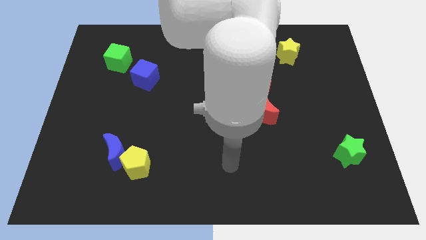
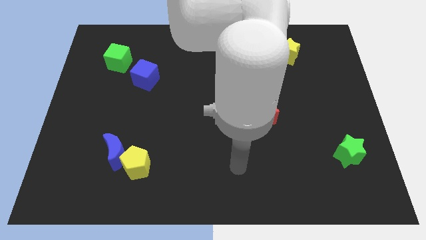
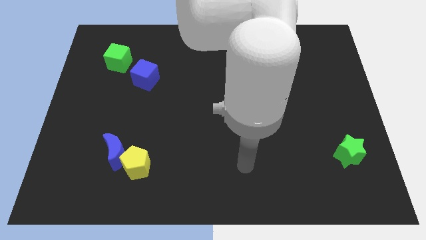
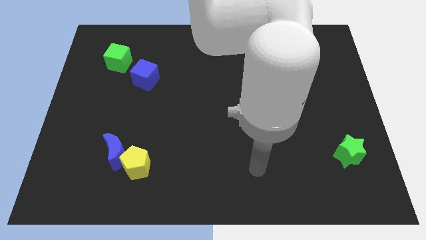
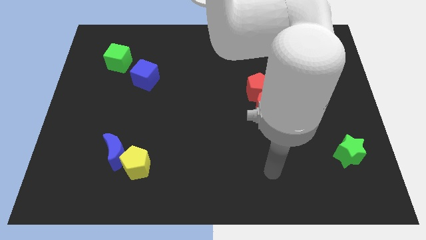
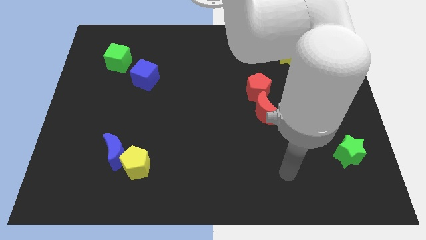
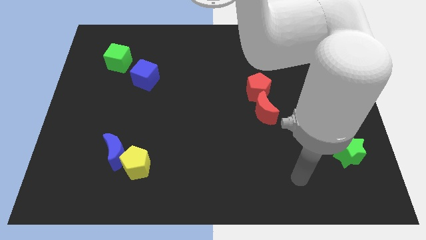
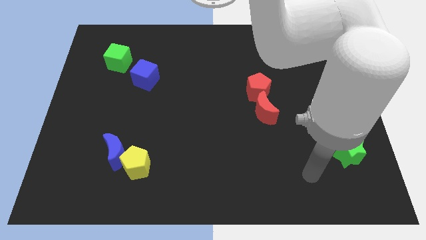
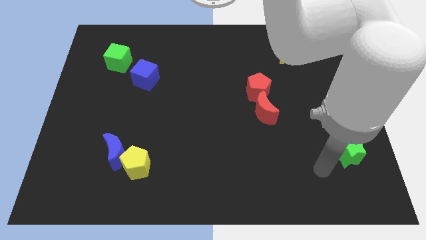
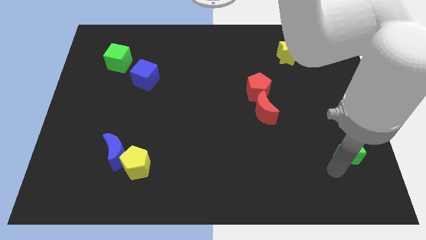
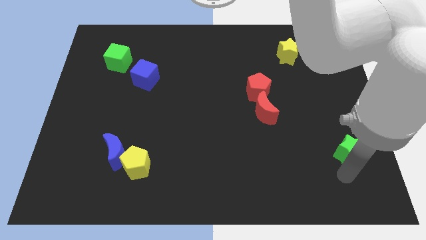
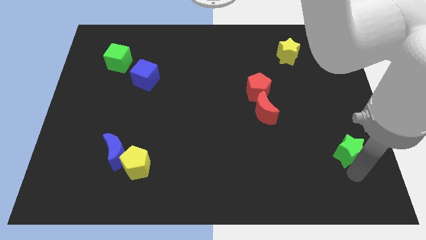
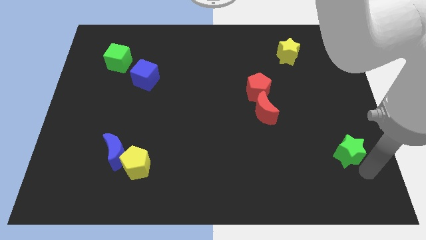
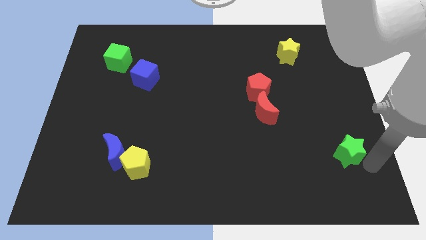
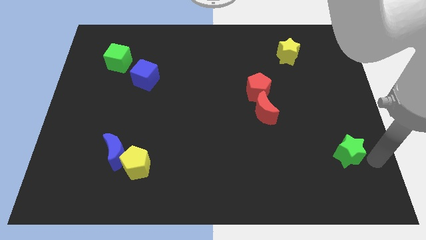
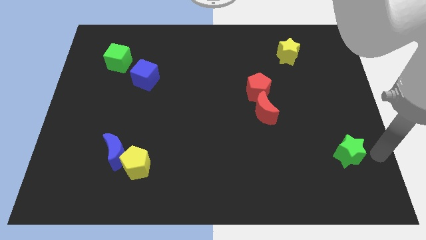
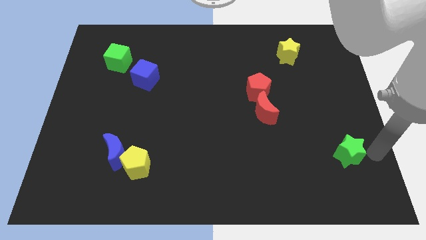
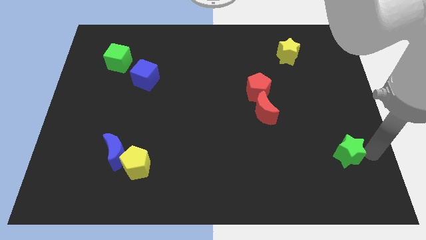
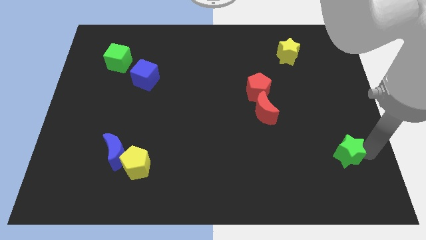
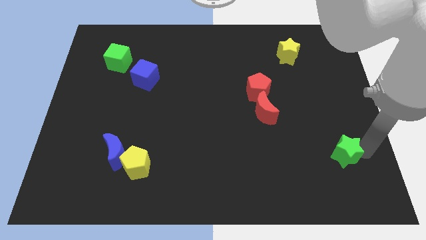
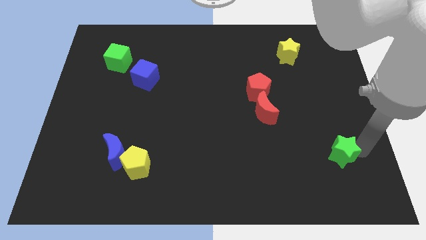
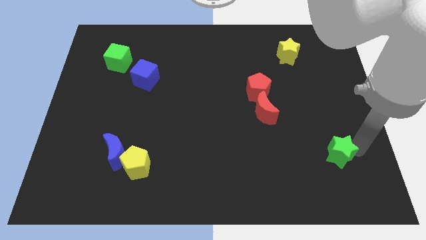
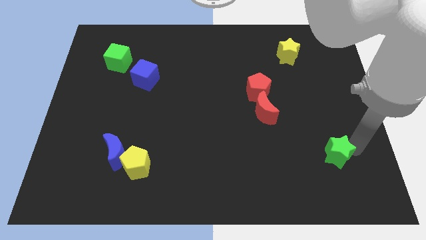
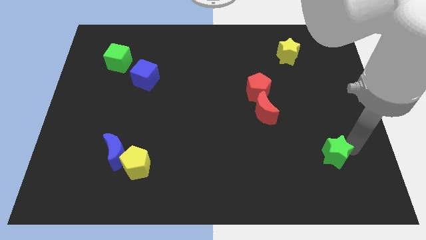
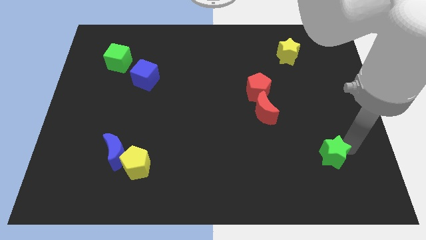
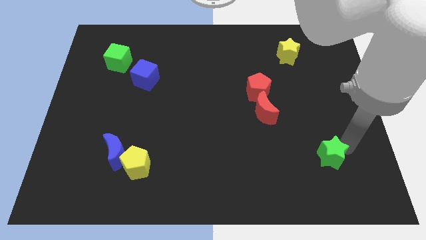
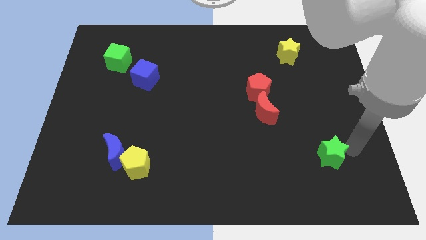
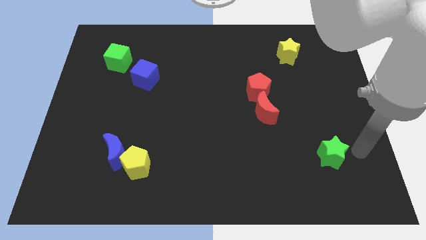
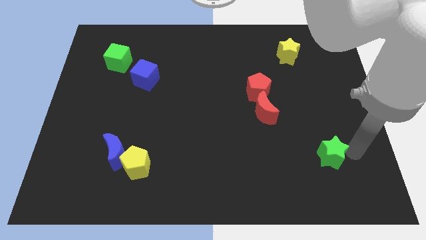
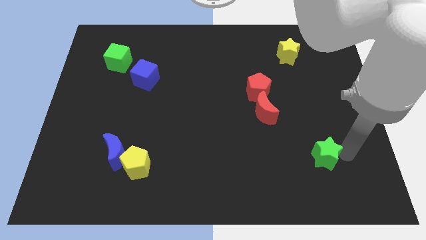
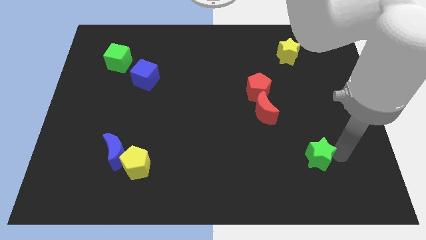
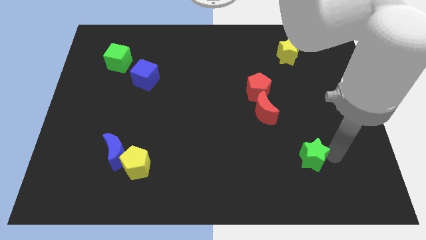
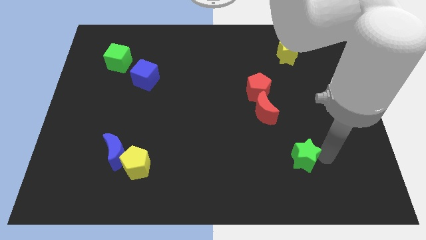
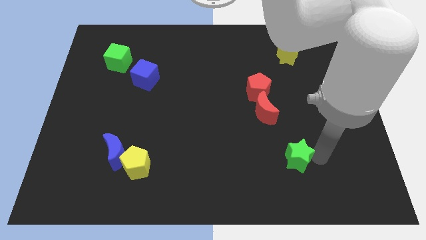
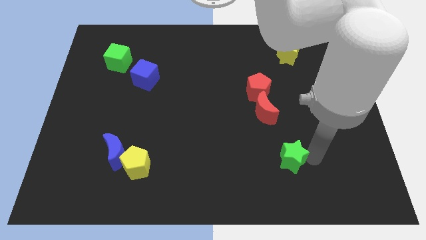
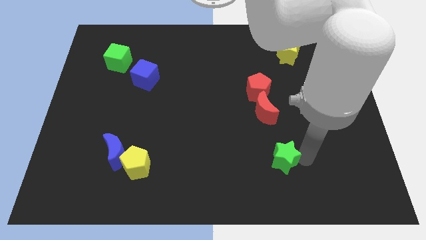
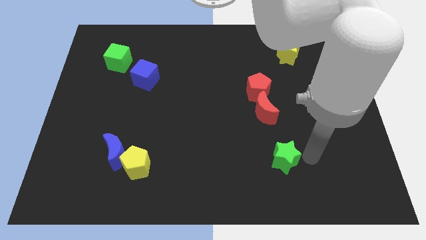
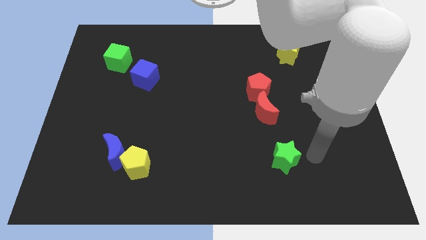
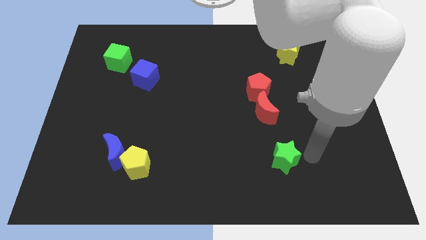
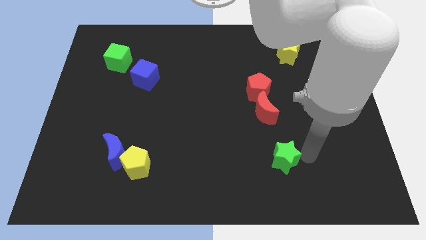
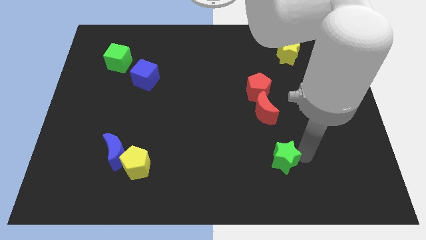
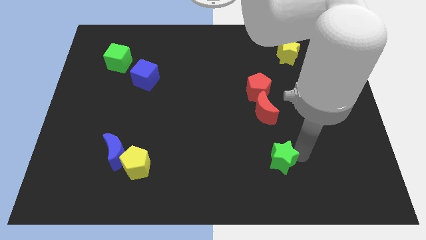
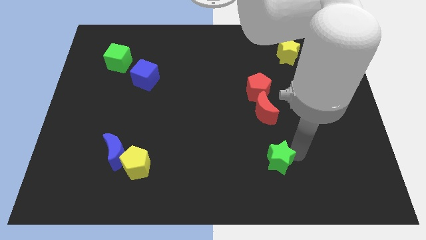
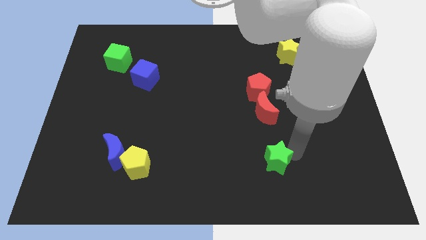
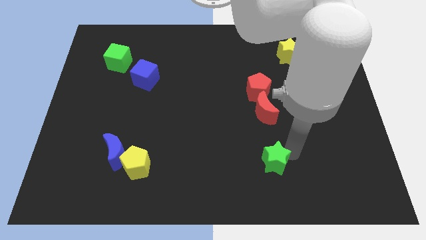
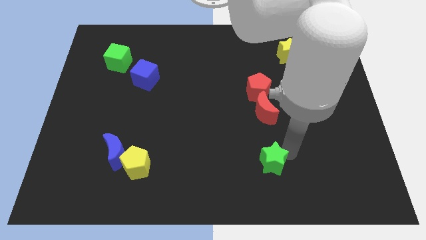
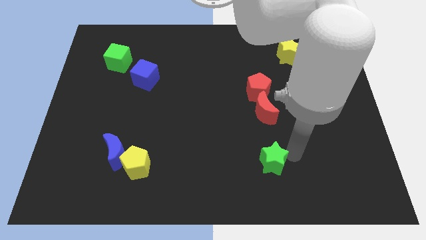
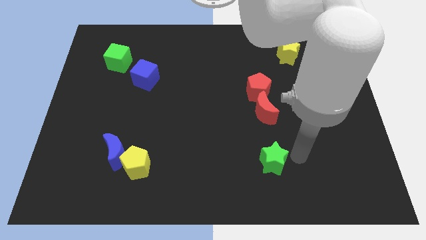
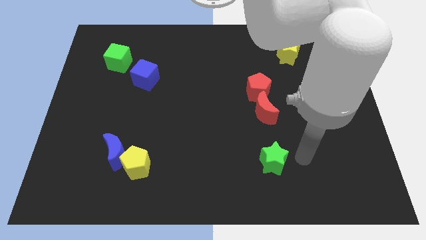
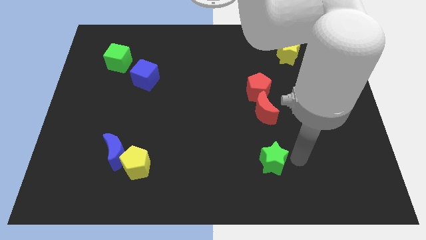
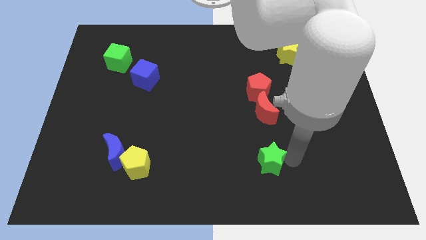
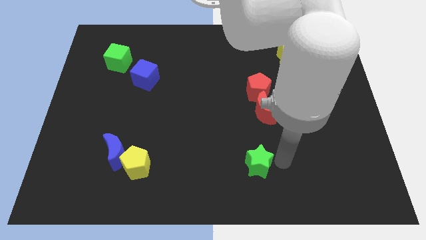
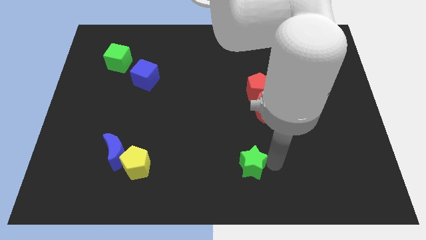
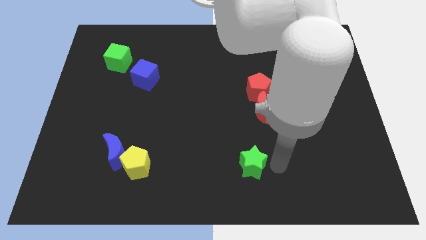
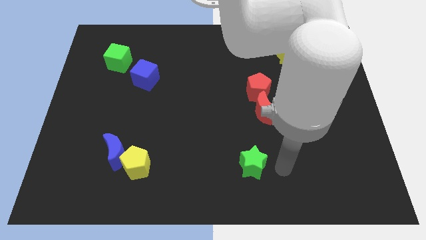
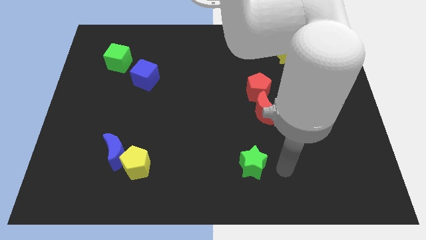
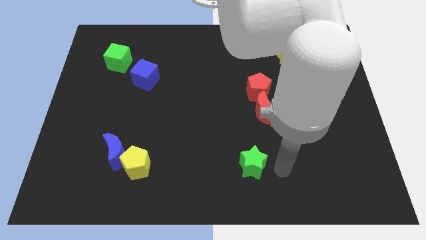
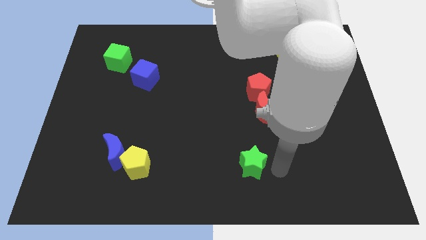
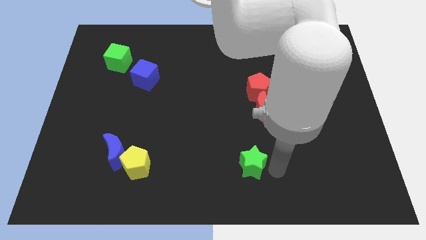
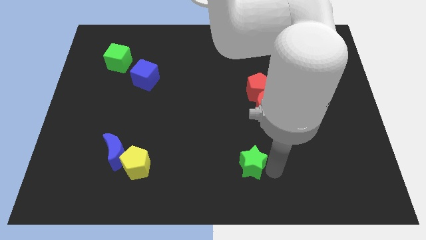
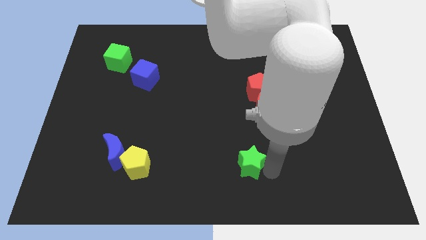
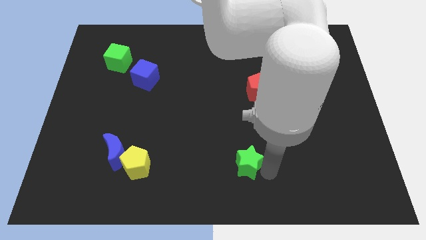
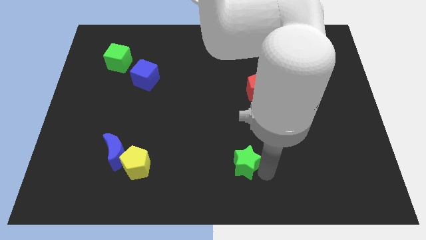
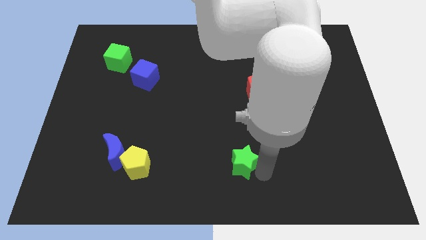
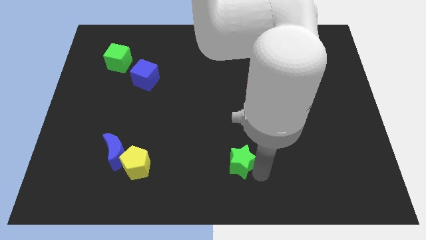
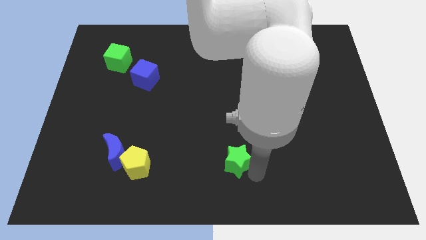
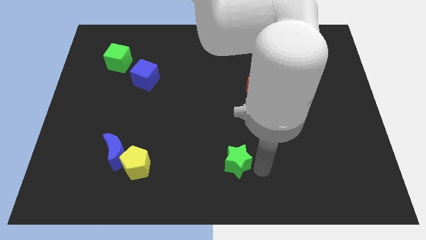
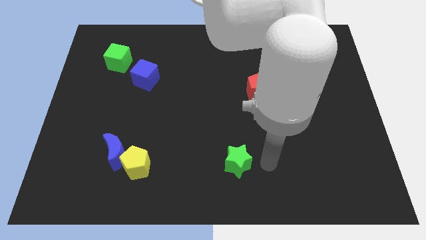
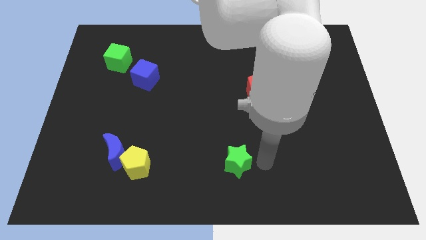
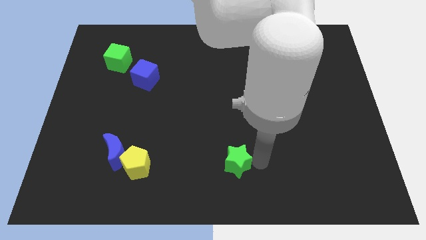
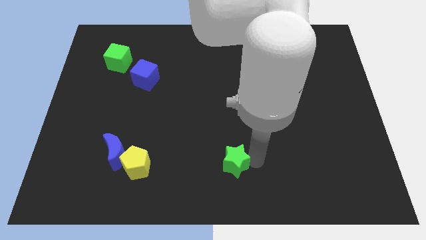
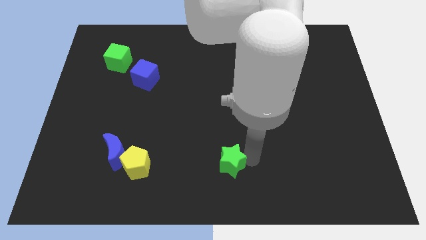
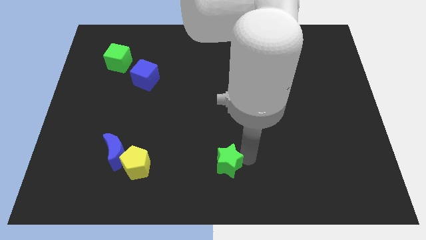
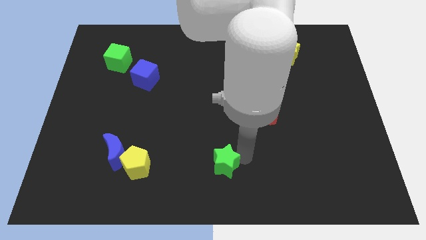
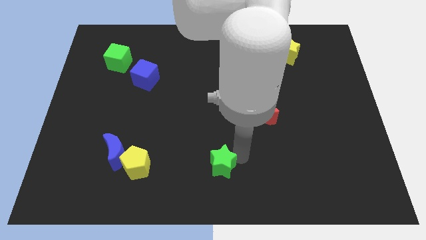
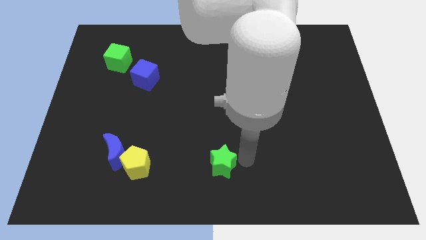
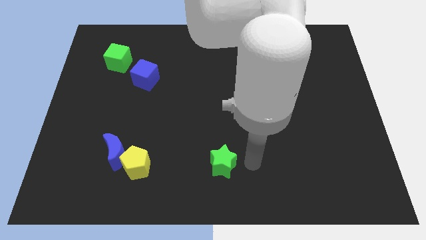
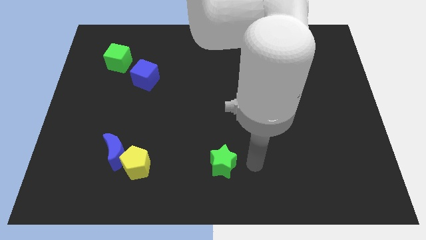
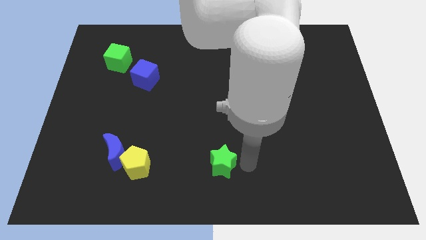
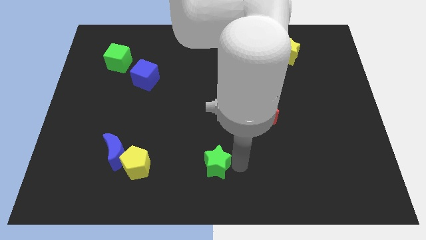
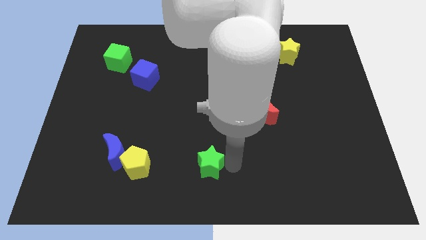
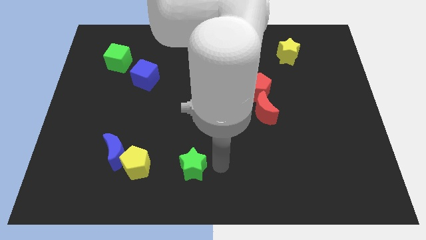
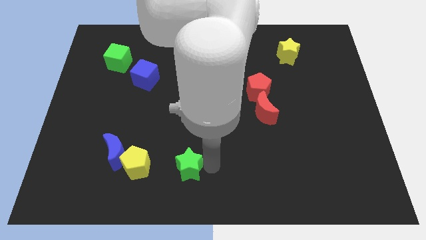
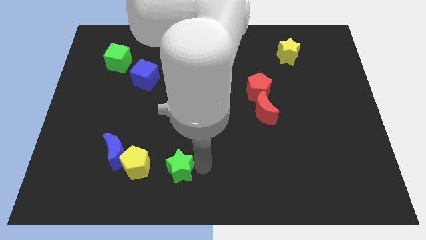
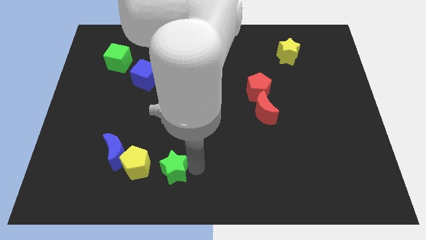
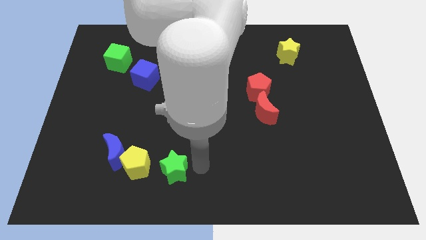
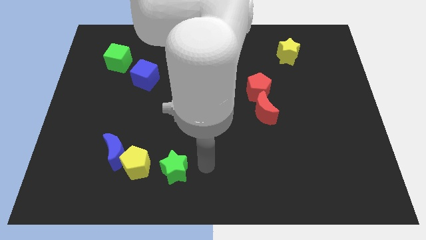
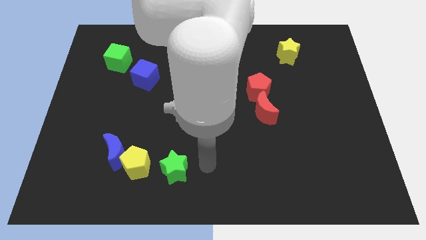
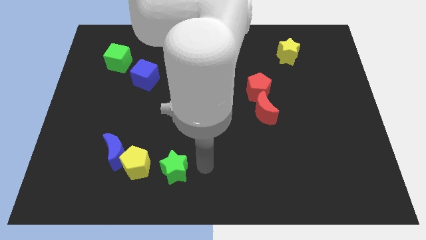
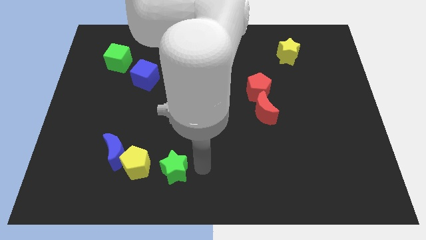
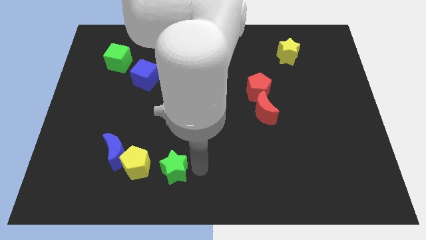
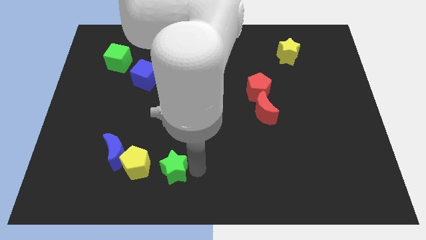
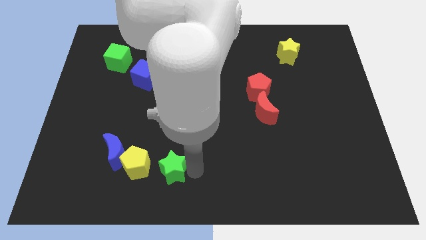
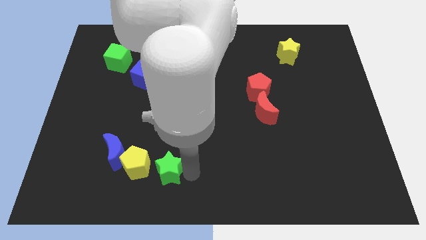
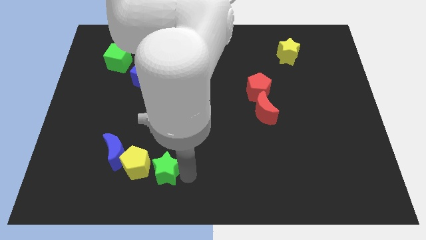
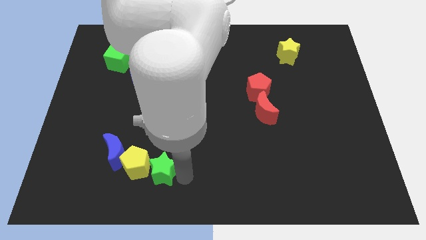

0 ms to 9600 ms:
push the green star towards the yellow pentagon
